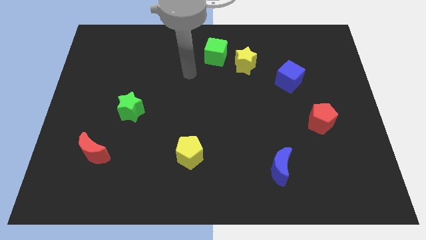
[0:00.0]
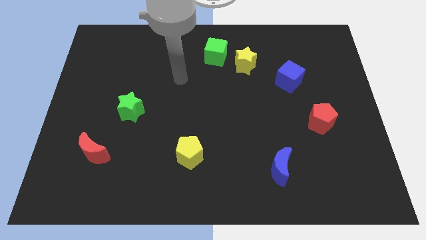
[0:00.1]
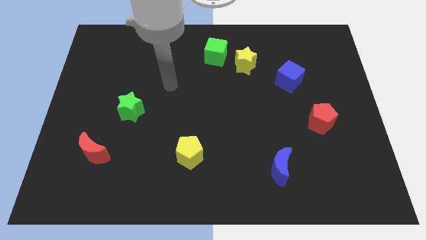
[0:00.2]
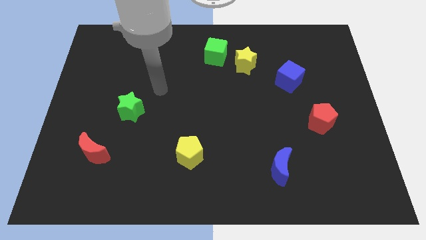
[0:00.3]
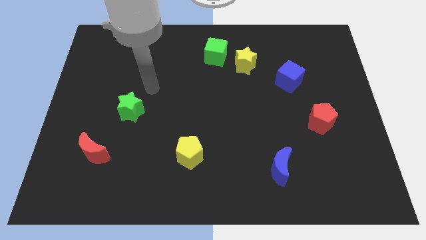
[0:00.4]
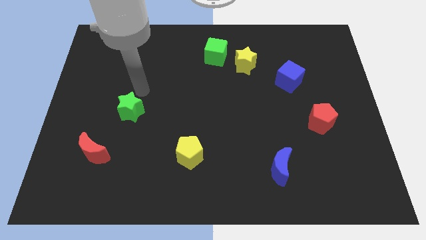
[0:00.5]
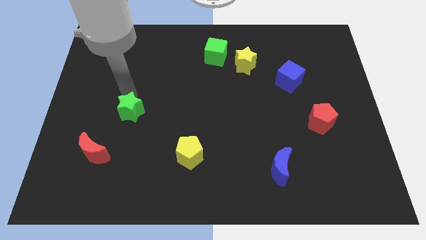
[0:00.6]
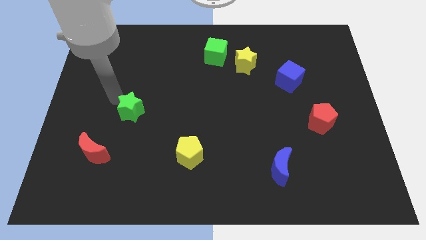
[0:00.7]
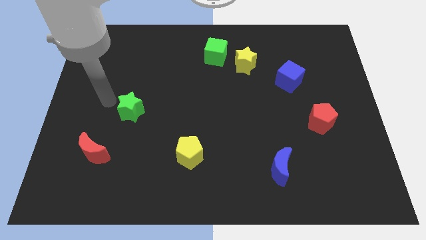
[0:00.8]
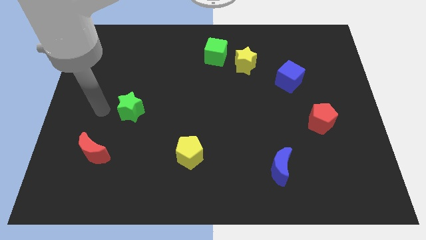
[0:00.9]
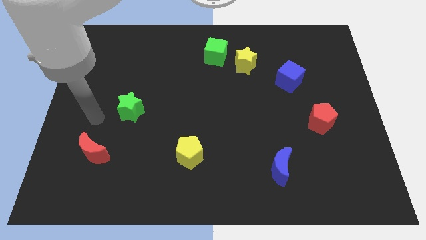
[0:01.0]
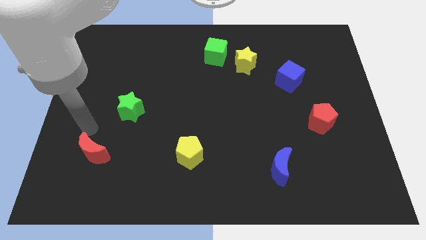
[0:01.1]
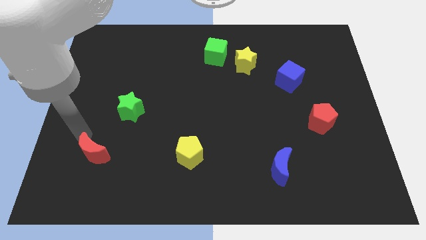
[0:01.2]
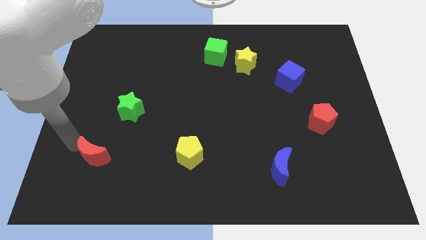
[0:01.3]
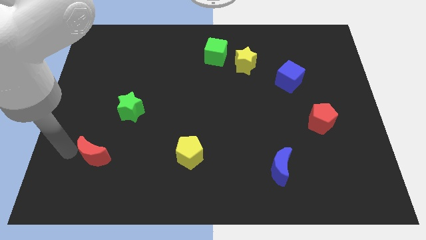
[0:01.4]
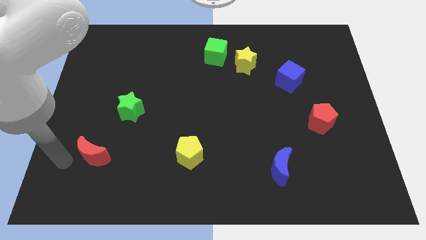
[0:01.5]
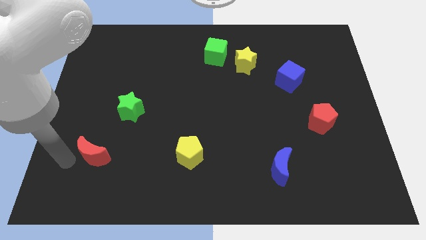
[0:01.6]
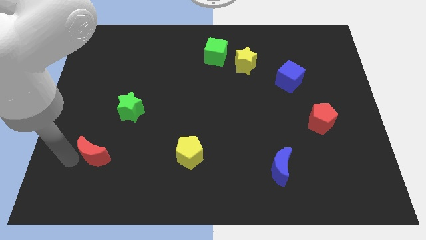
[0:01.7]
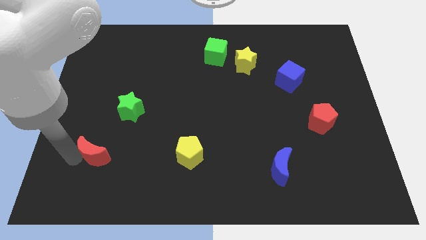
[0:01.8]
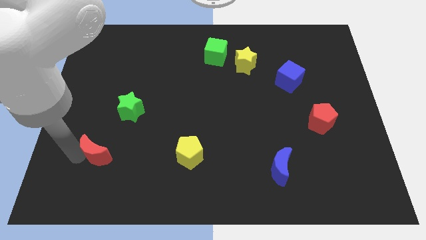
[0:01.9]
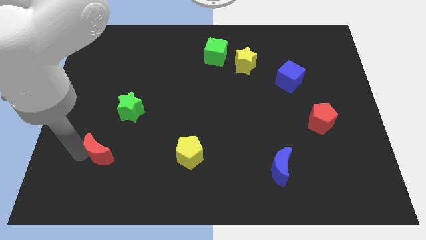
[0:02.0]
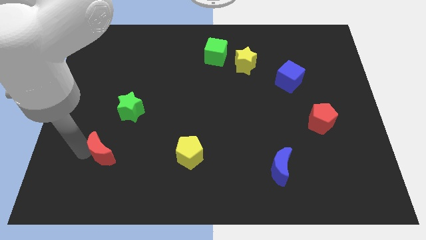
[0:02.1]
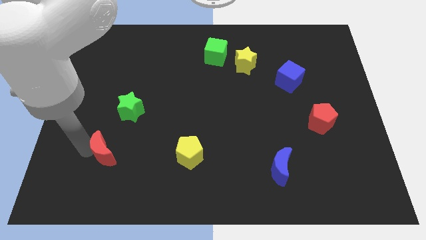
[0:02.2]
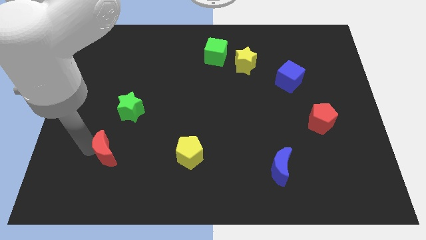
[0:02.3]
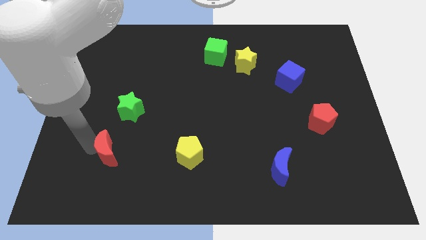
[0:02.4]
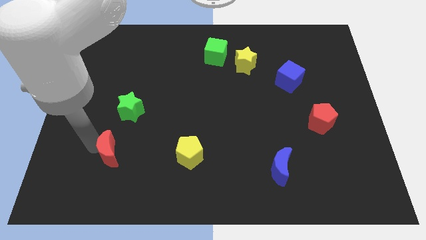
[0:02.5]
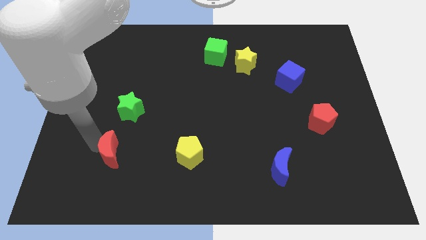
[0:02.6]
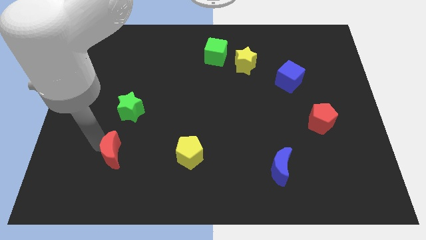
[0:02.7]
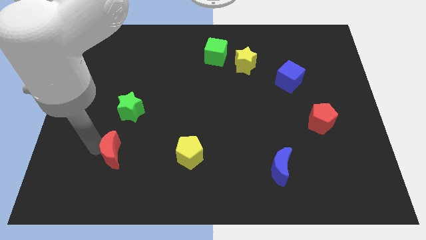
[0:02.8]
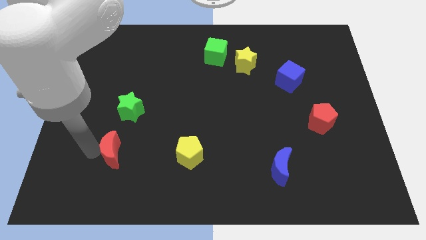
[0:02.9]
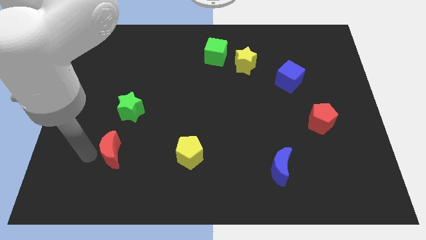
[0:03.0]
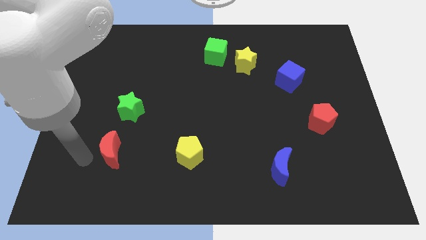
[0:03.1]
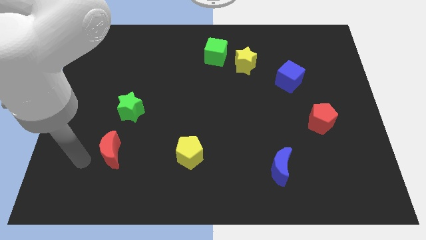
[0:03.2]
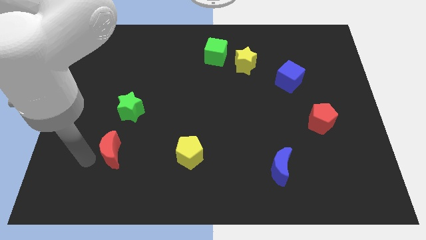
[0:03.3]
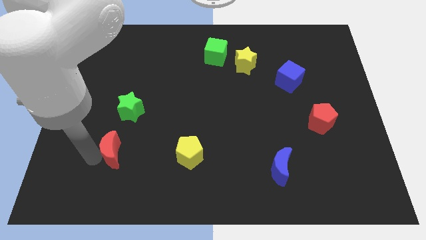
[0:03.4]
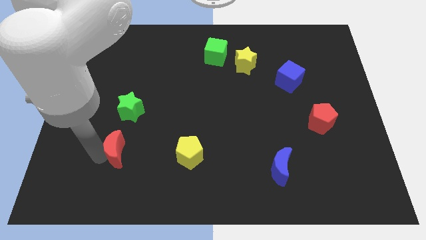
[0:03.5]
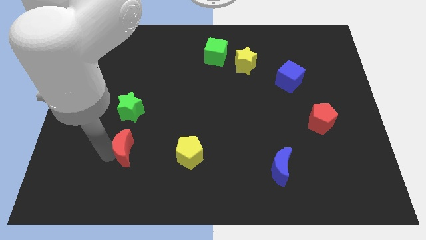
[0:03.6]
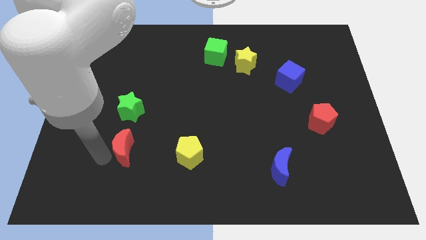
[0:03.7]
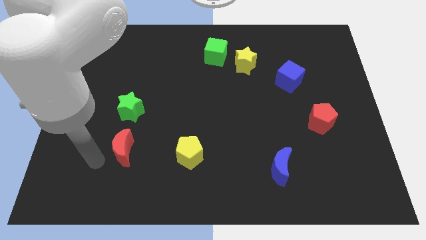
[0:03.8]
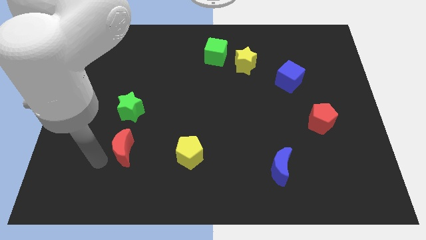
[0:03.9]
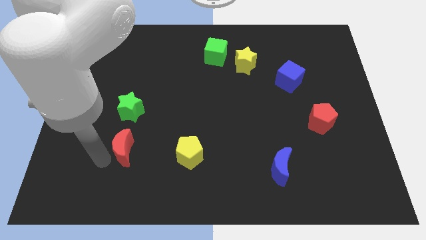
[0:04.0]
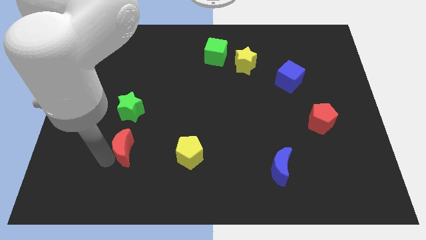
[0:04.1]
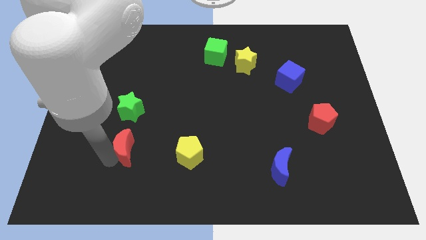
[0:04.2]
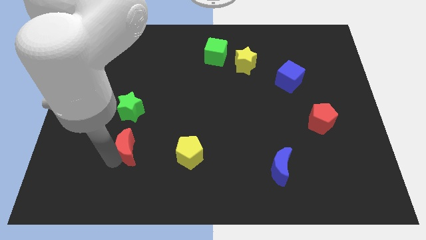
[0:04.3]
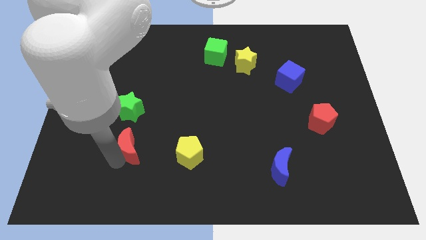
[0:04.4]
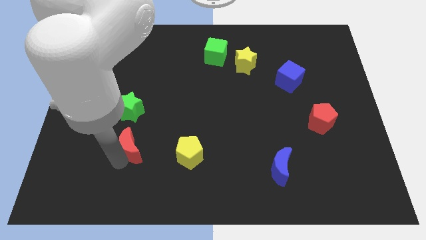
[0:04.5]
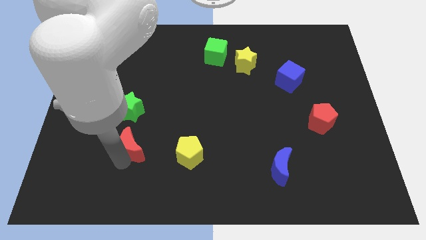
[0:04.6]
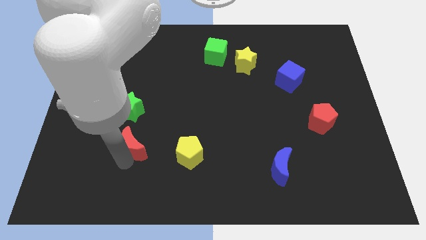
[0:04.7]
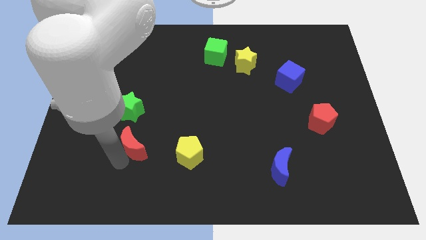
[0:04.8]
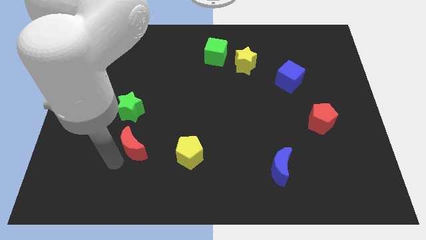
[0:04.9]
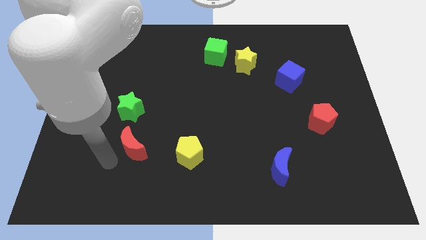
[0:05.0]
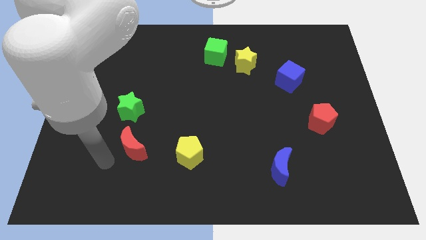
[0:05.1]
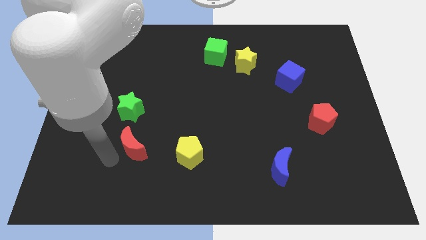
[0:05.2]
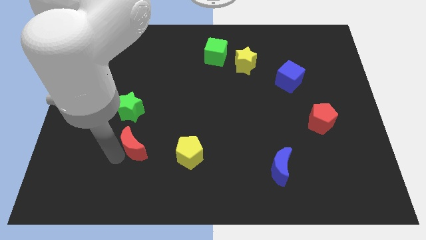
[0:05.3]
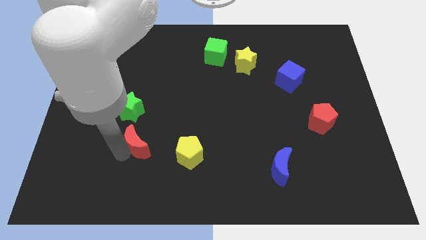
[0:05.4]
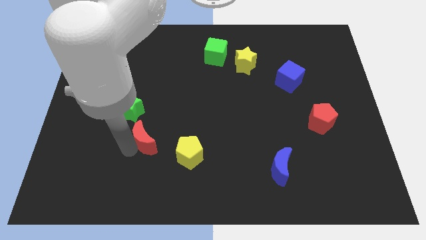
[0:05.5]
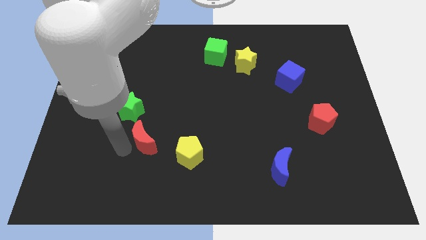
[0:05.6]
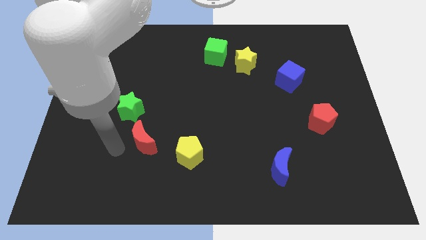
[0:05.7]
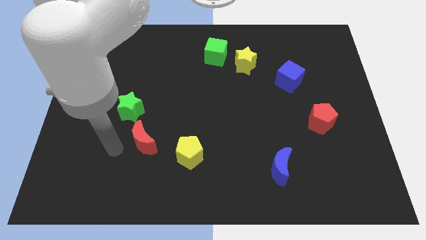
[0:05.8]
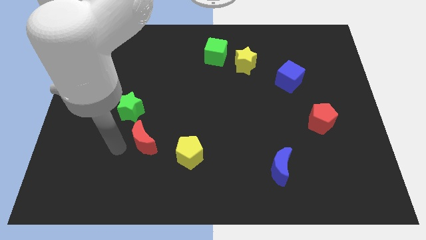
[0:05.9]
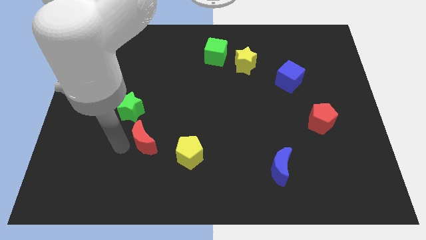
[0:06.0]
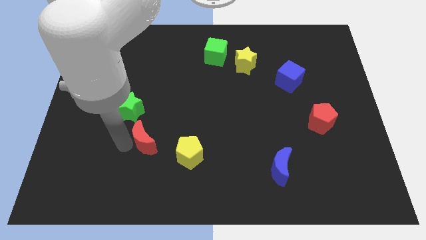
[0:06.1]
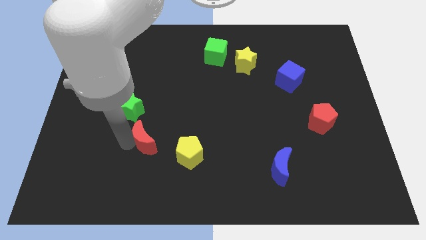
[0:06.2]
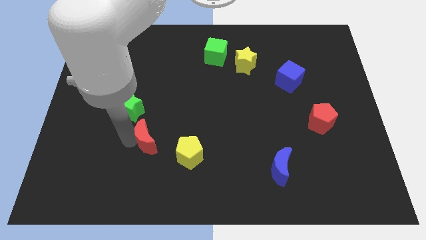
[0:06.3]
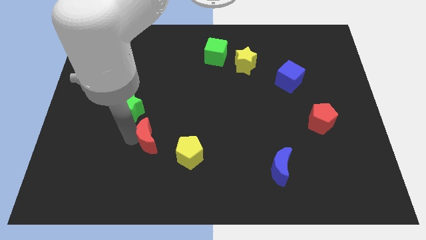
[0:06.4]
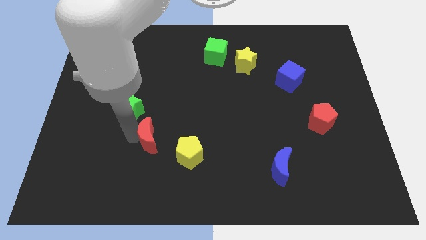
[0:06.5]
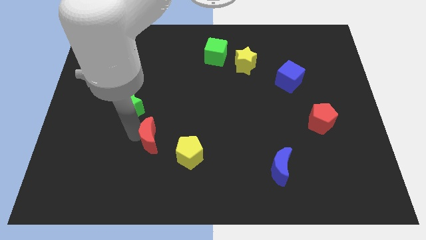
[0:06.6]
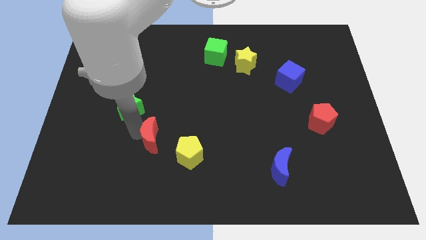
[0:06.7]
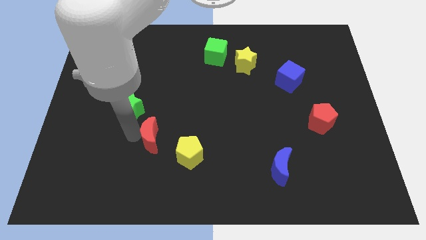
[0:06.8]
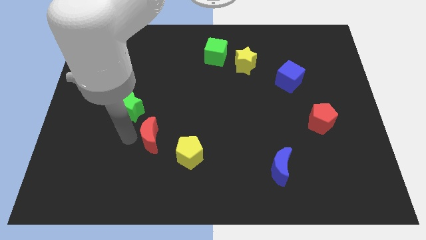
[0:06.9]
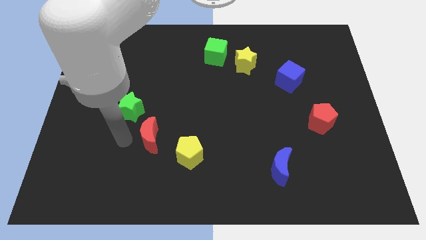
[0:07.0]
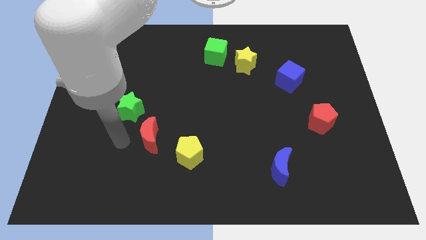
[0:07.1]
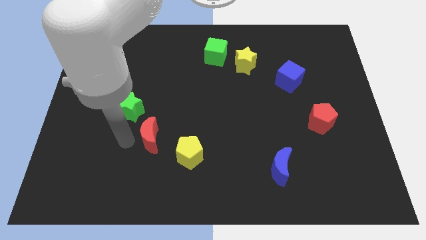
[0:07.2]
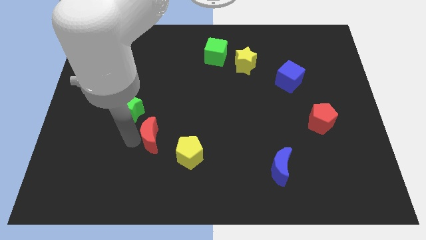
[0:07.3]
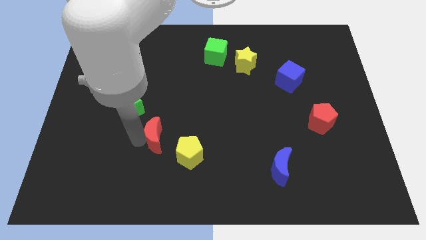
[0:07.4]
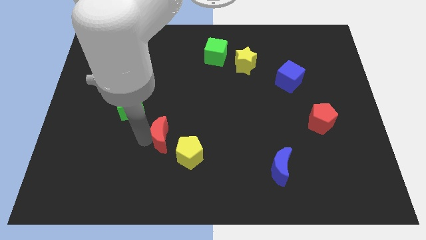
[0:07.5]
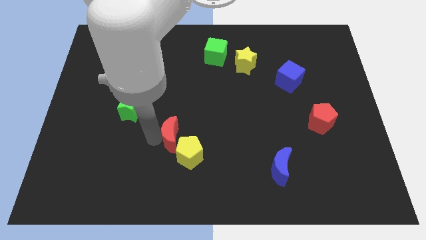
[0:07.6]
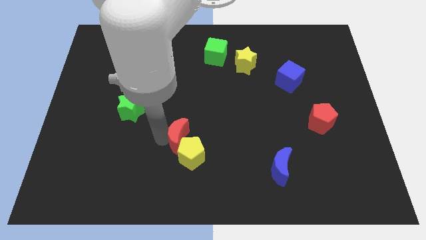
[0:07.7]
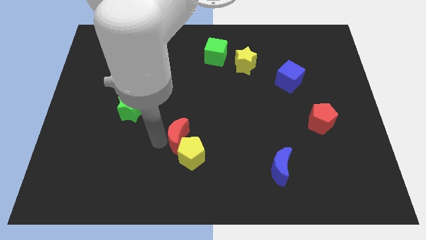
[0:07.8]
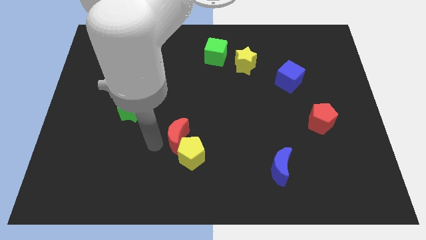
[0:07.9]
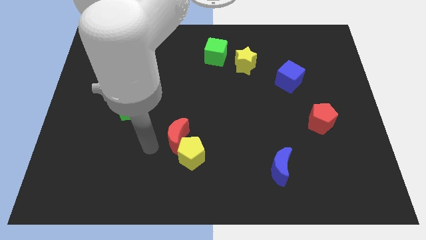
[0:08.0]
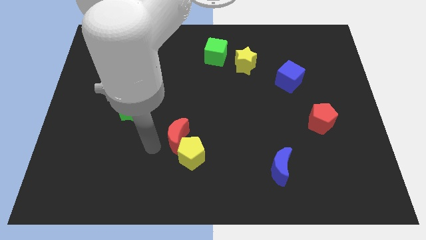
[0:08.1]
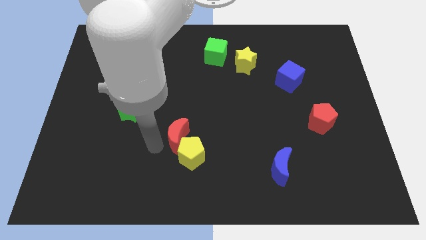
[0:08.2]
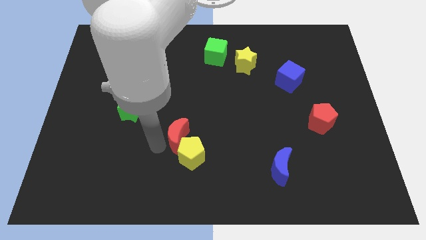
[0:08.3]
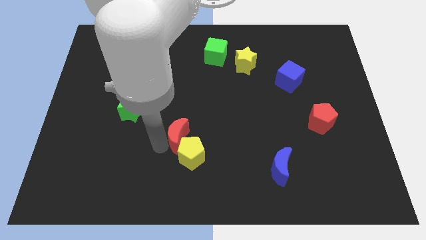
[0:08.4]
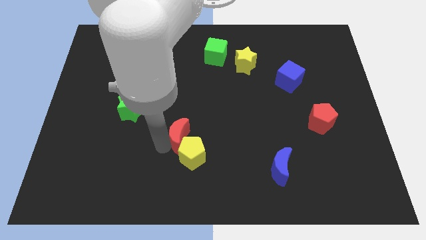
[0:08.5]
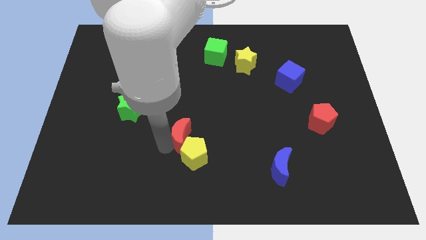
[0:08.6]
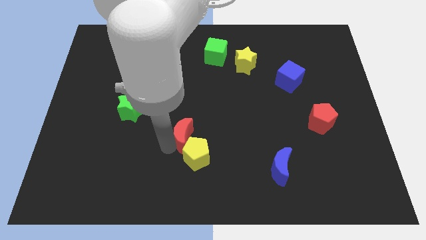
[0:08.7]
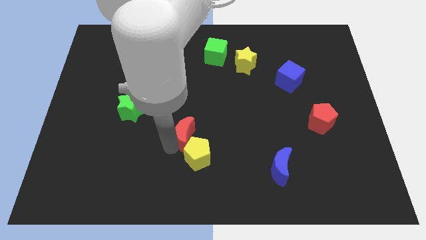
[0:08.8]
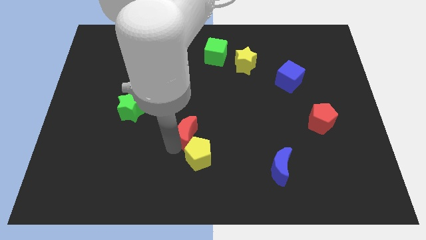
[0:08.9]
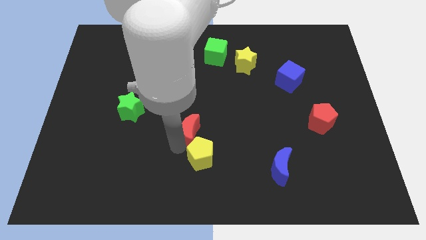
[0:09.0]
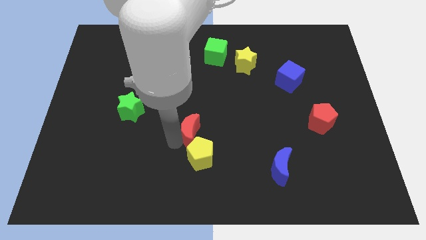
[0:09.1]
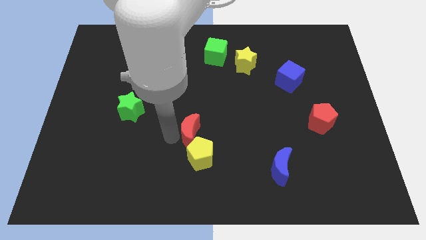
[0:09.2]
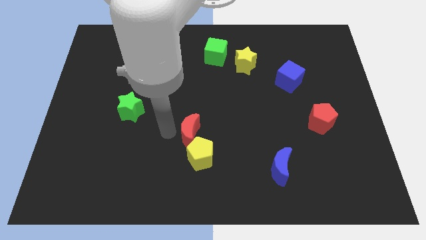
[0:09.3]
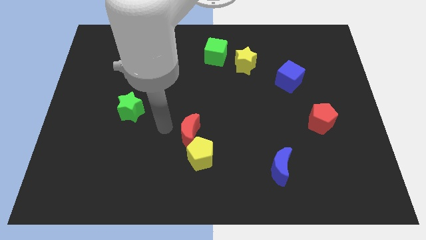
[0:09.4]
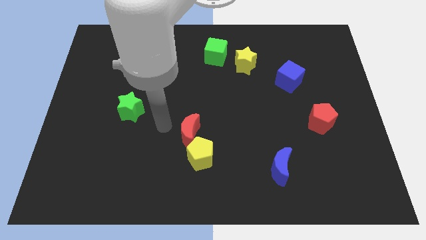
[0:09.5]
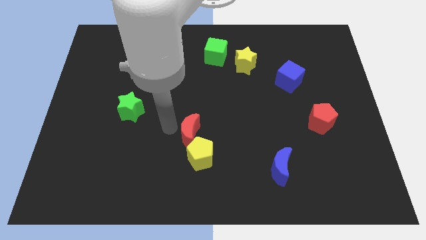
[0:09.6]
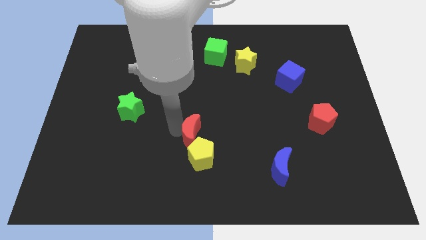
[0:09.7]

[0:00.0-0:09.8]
push the red moon to the right
